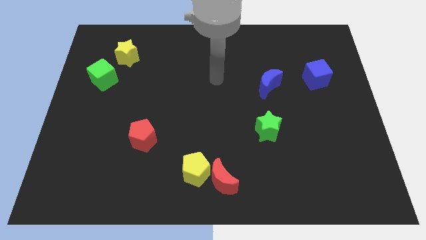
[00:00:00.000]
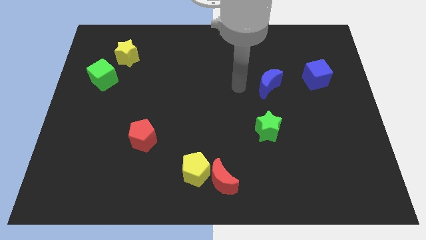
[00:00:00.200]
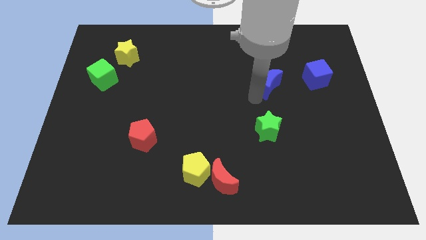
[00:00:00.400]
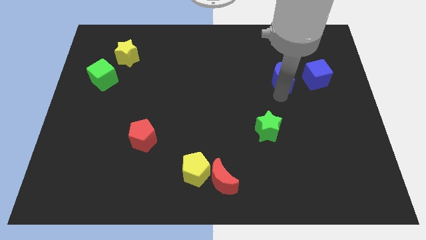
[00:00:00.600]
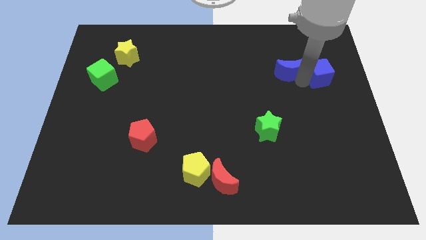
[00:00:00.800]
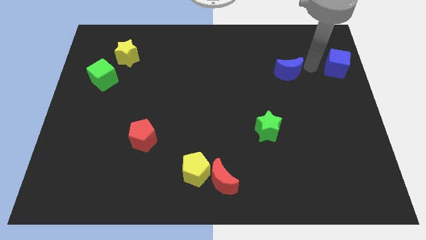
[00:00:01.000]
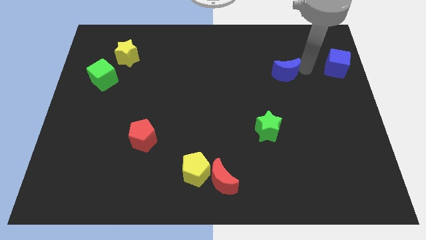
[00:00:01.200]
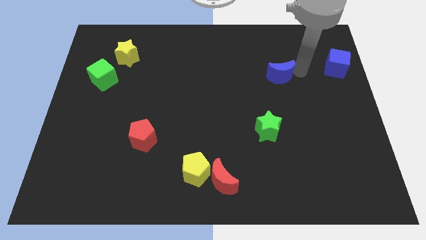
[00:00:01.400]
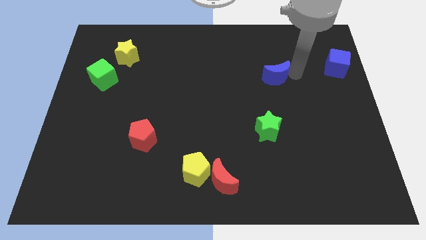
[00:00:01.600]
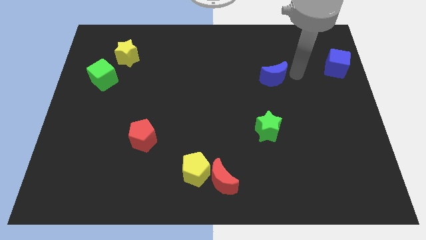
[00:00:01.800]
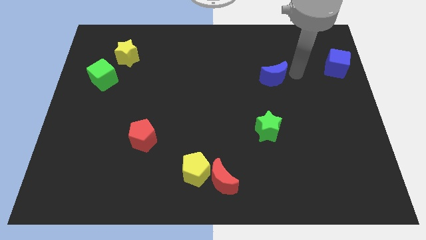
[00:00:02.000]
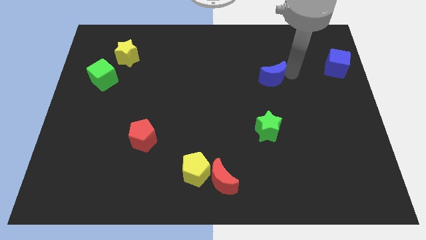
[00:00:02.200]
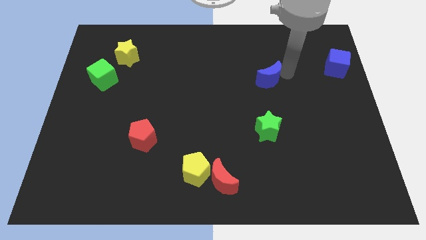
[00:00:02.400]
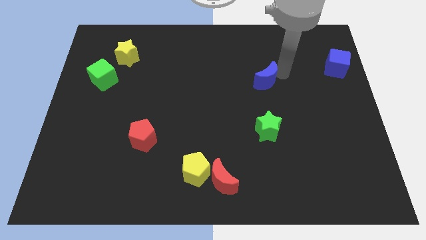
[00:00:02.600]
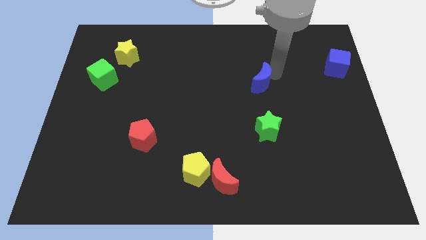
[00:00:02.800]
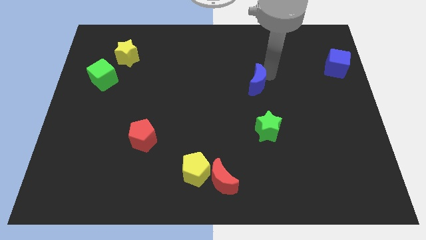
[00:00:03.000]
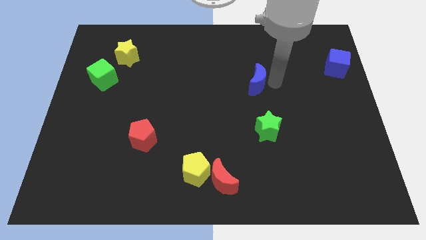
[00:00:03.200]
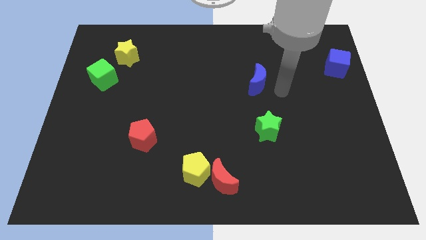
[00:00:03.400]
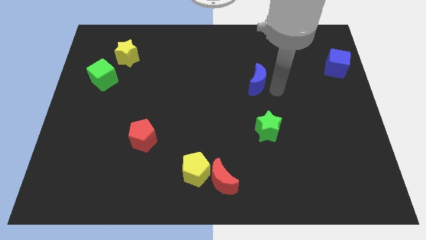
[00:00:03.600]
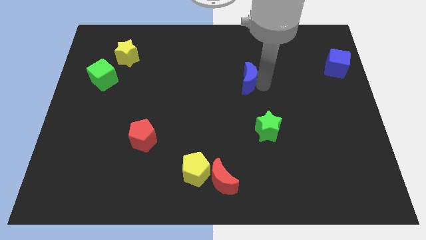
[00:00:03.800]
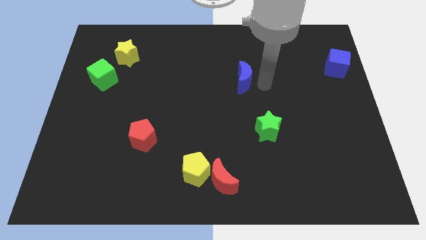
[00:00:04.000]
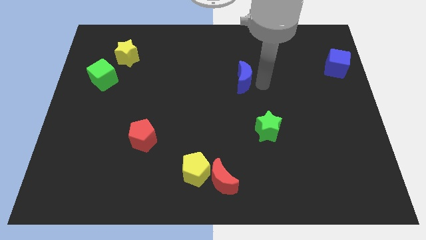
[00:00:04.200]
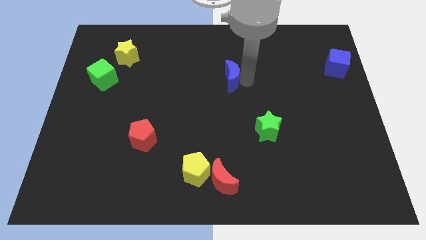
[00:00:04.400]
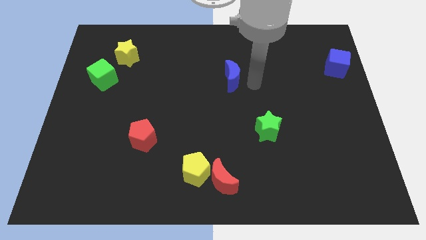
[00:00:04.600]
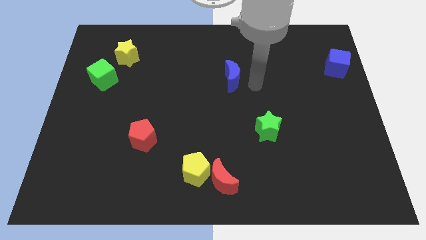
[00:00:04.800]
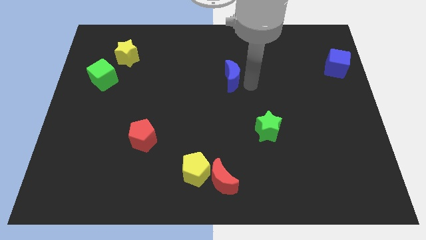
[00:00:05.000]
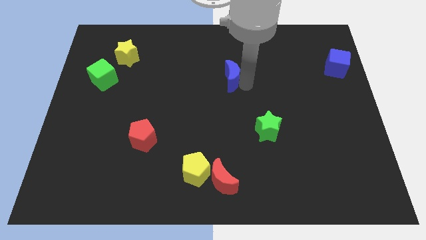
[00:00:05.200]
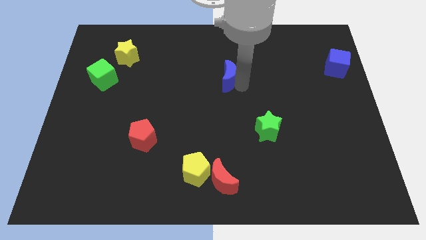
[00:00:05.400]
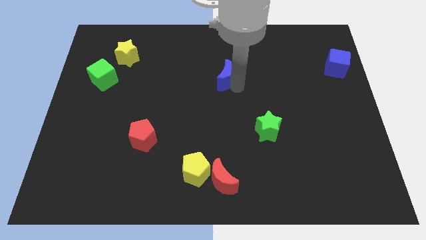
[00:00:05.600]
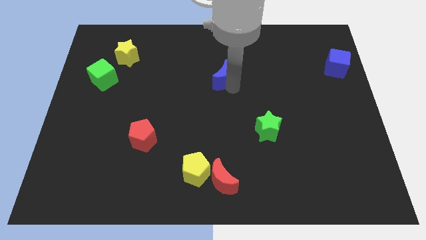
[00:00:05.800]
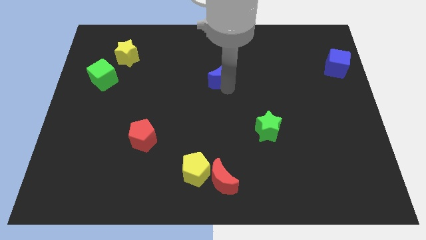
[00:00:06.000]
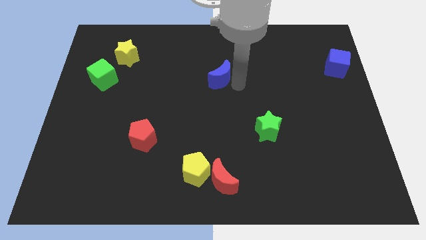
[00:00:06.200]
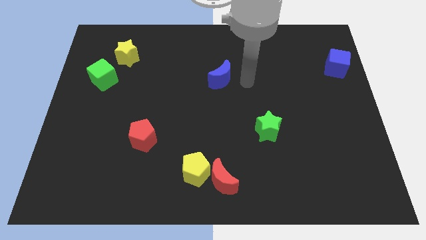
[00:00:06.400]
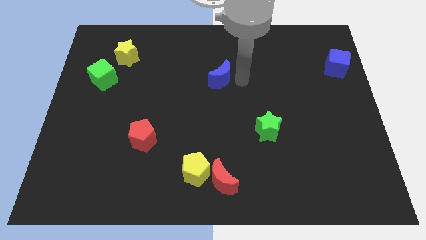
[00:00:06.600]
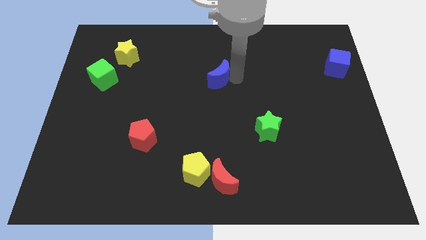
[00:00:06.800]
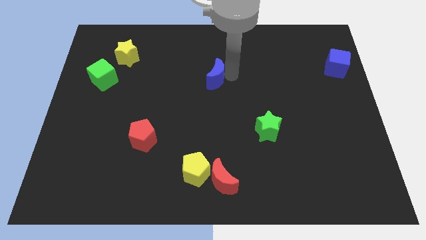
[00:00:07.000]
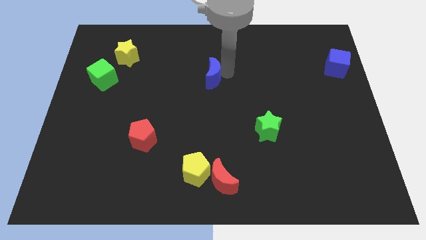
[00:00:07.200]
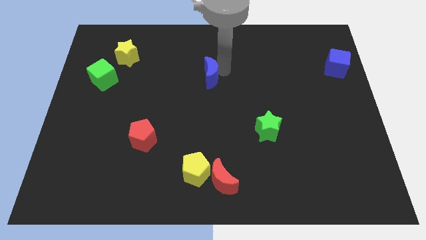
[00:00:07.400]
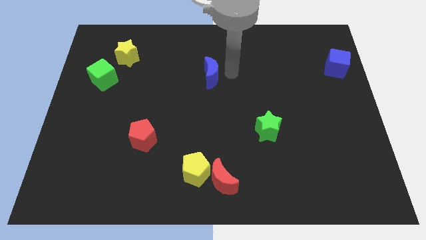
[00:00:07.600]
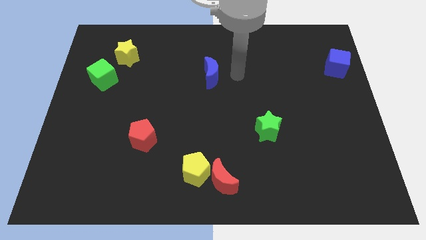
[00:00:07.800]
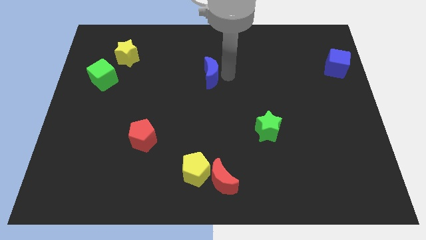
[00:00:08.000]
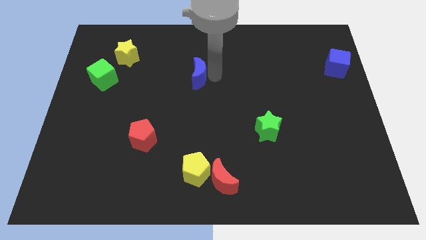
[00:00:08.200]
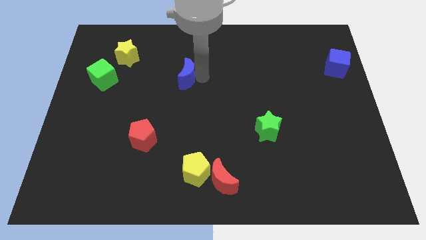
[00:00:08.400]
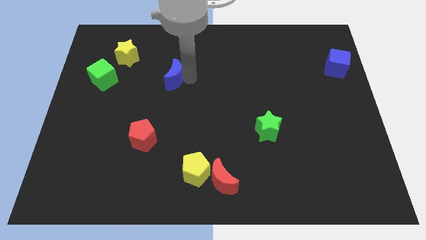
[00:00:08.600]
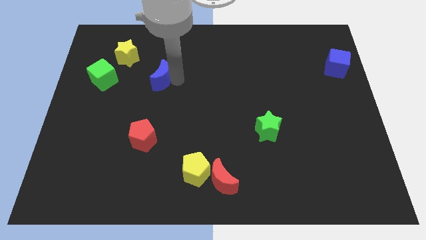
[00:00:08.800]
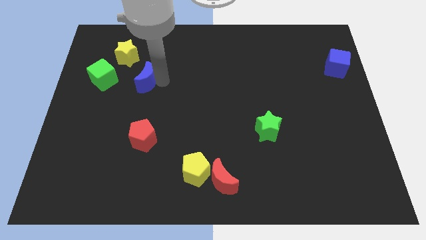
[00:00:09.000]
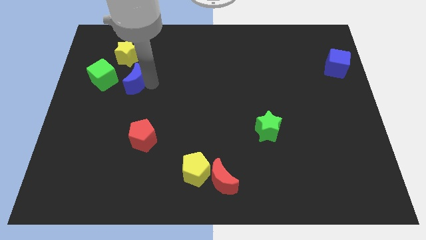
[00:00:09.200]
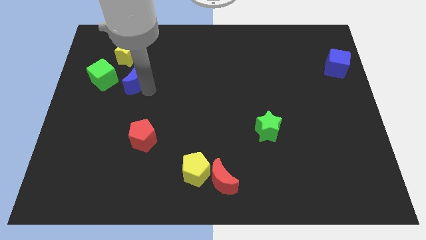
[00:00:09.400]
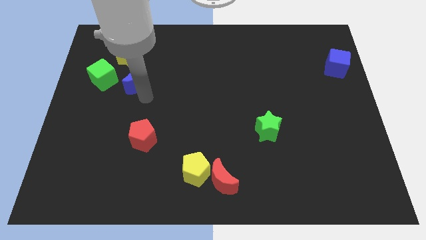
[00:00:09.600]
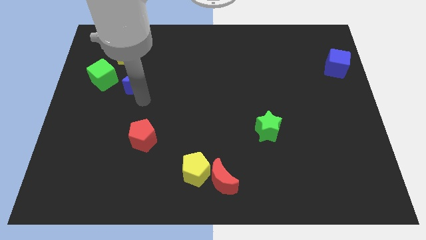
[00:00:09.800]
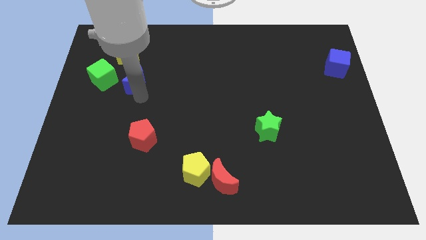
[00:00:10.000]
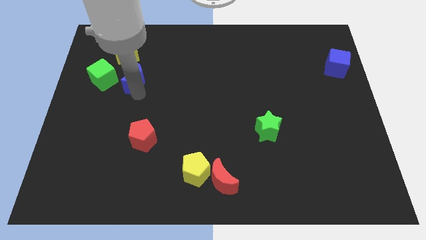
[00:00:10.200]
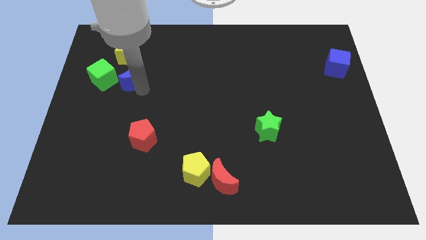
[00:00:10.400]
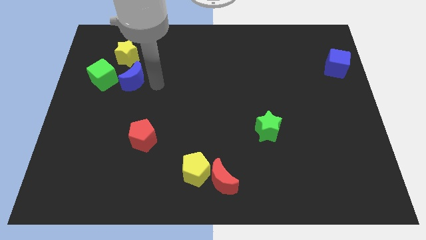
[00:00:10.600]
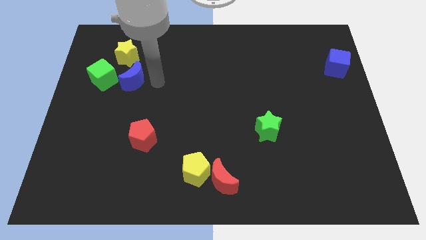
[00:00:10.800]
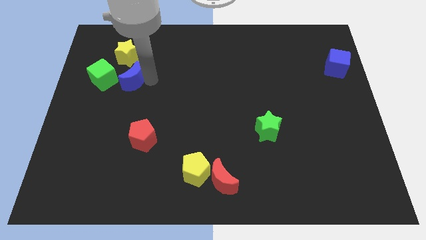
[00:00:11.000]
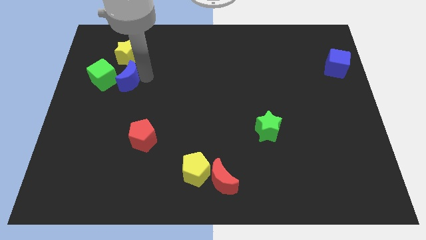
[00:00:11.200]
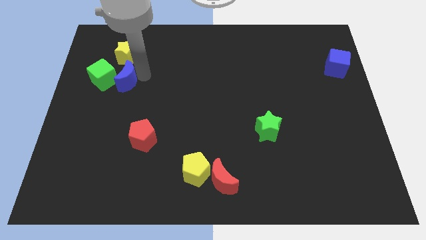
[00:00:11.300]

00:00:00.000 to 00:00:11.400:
push the blue moon next to the green cube
